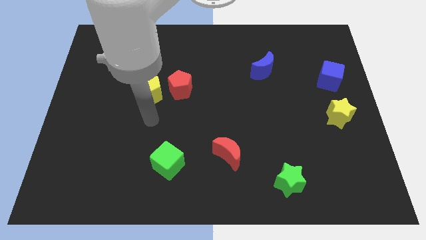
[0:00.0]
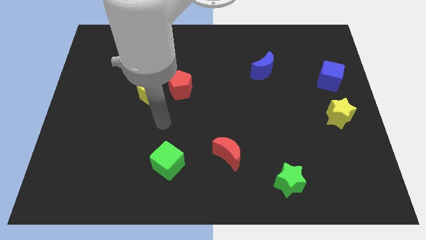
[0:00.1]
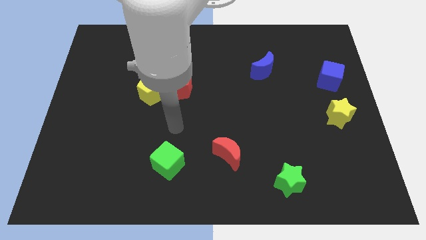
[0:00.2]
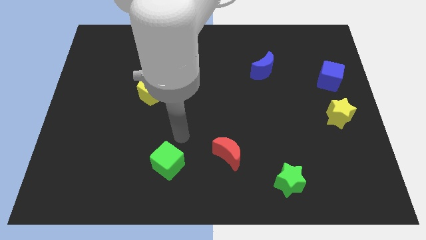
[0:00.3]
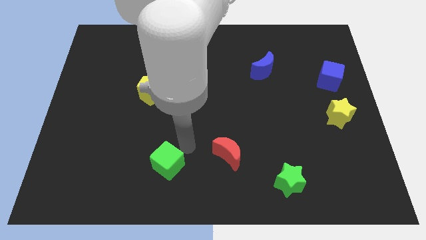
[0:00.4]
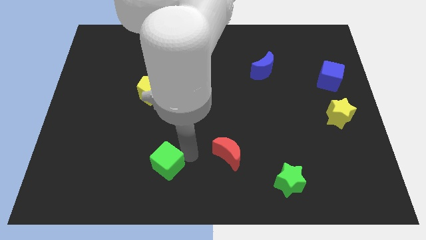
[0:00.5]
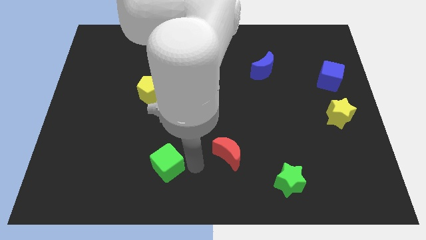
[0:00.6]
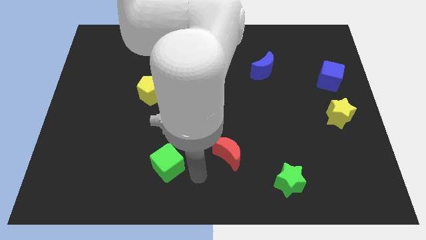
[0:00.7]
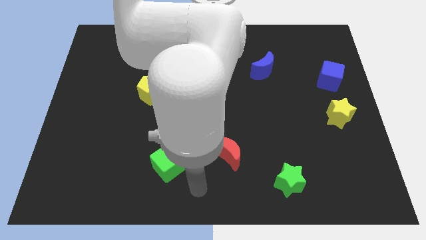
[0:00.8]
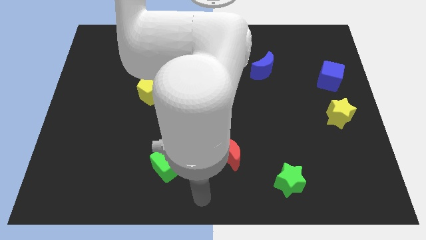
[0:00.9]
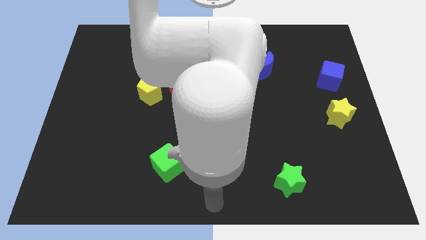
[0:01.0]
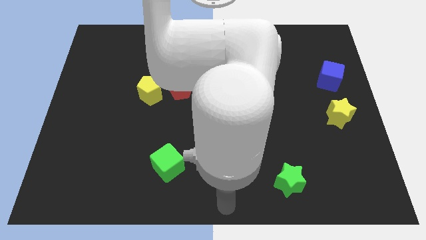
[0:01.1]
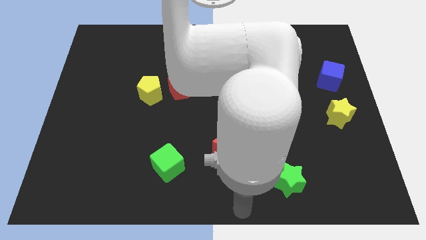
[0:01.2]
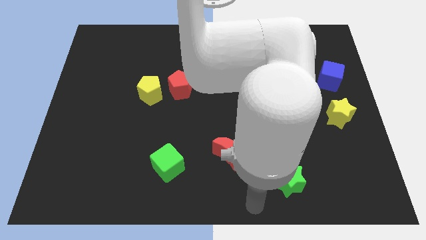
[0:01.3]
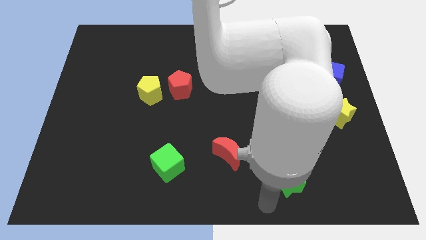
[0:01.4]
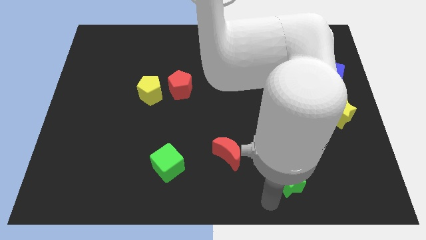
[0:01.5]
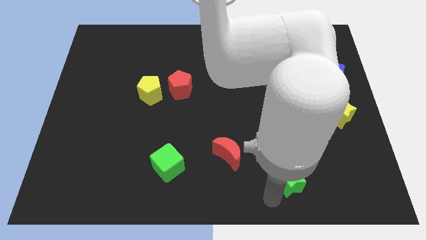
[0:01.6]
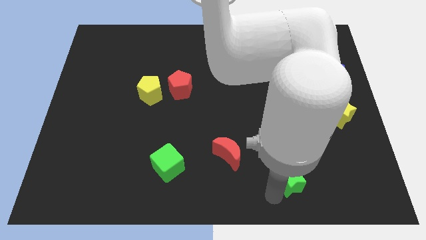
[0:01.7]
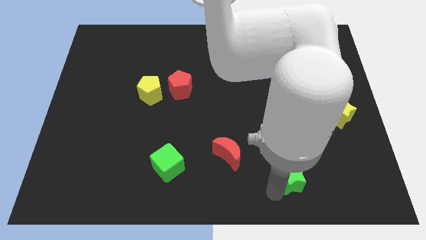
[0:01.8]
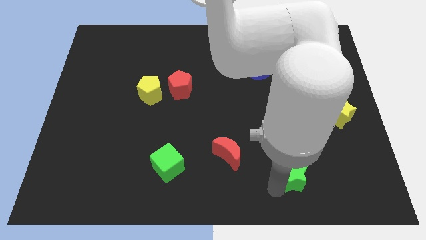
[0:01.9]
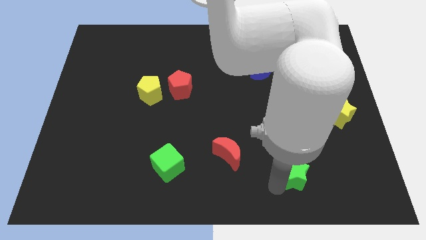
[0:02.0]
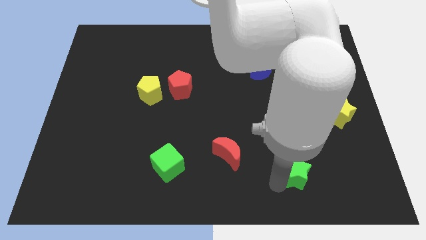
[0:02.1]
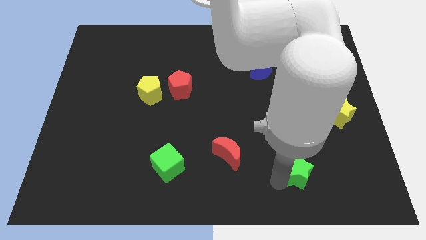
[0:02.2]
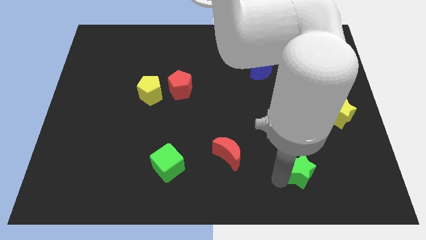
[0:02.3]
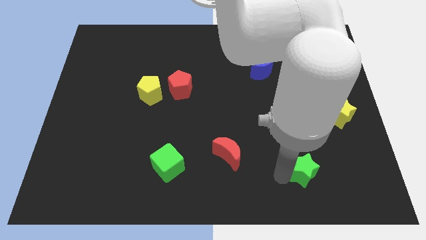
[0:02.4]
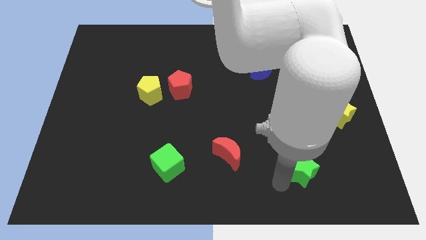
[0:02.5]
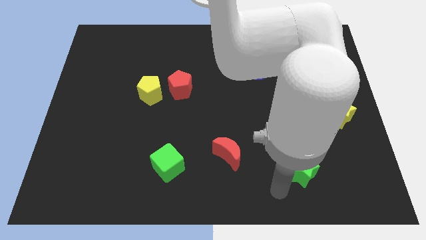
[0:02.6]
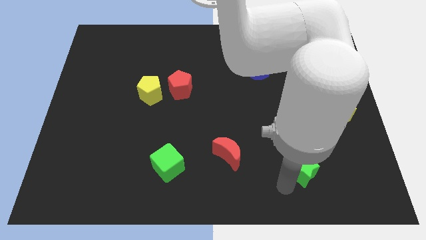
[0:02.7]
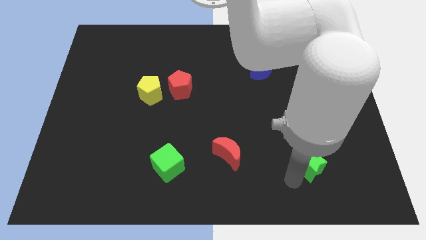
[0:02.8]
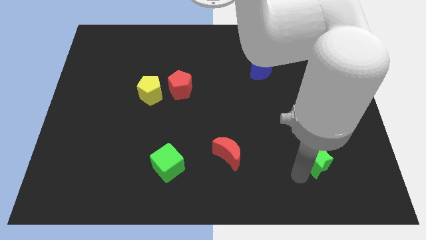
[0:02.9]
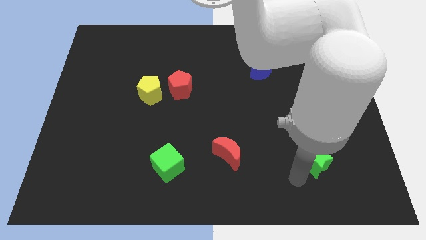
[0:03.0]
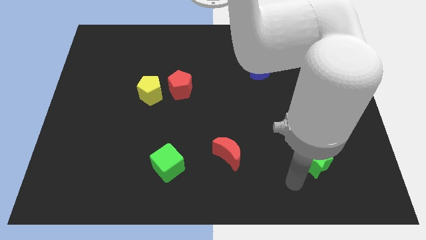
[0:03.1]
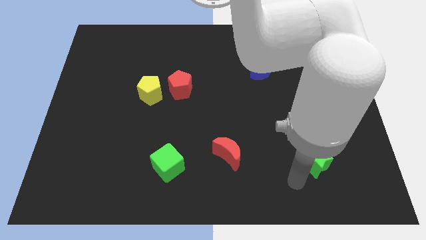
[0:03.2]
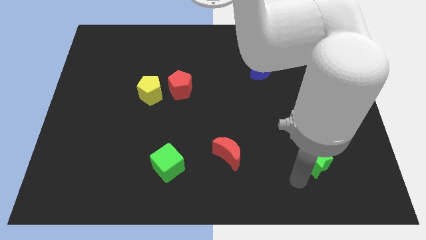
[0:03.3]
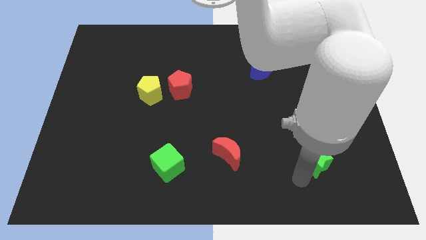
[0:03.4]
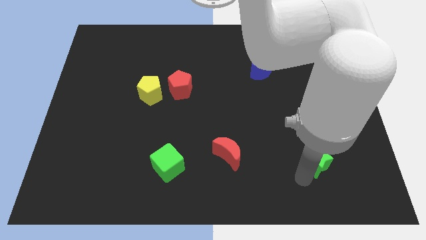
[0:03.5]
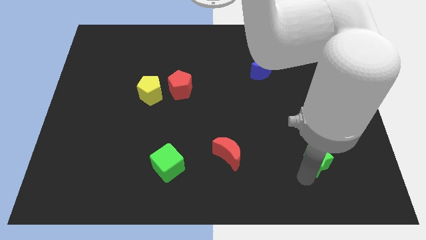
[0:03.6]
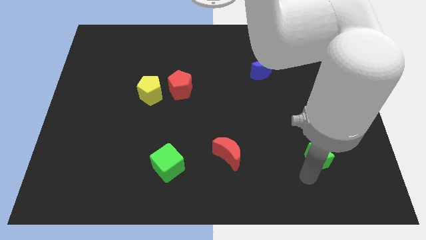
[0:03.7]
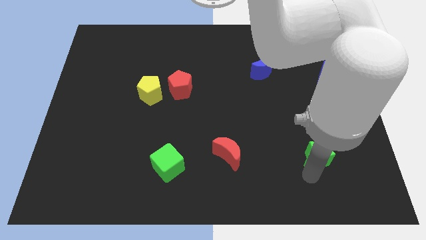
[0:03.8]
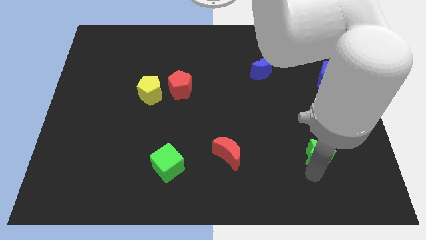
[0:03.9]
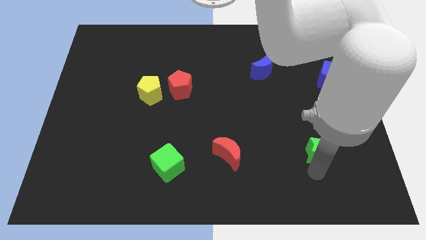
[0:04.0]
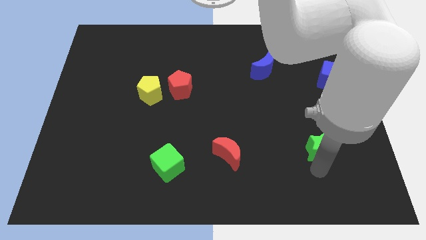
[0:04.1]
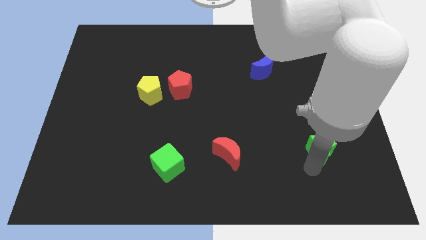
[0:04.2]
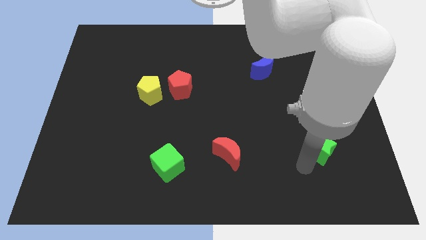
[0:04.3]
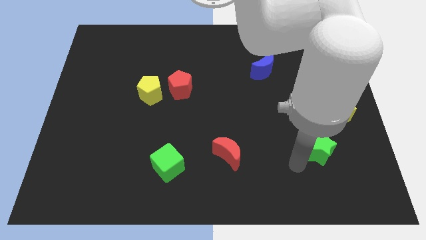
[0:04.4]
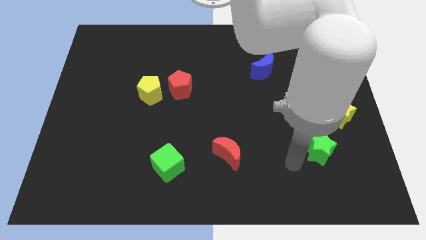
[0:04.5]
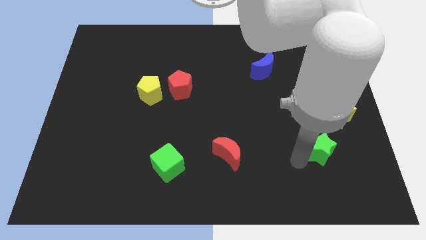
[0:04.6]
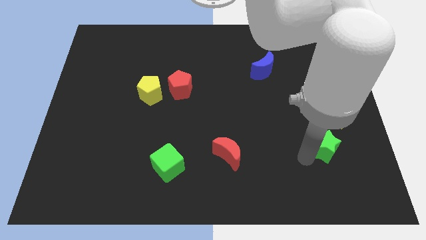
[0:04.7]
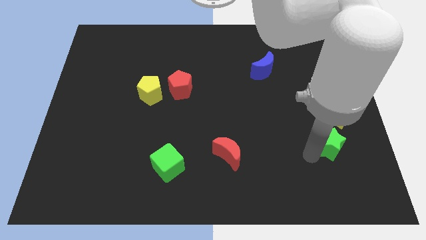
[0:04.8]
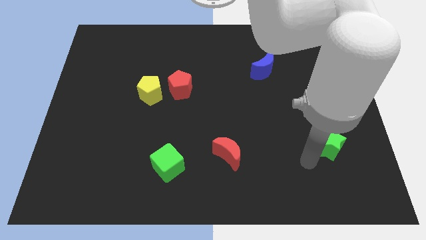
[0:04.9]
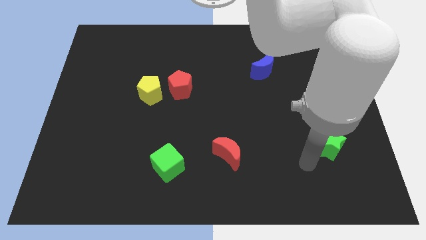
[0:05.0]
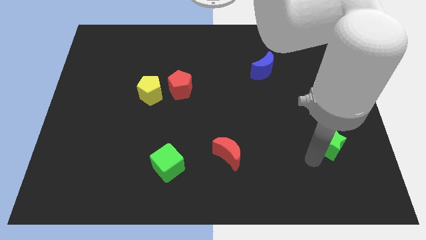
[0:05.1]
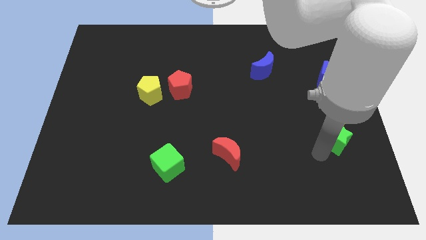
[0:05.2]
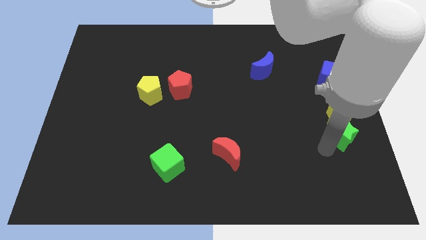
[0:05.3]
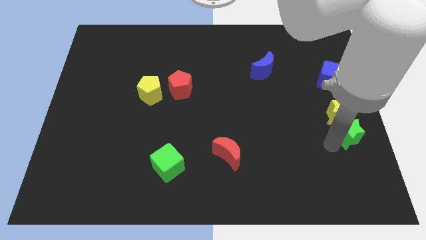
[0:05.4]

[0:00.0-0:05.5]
slide the green star to the center right

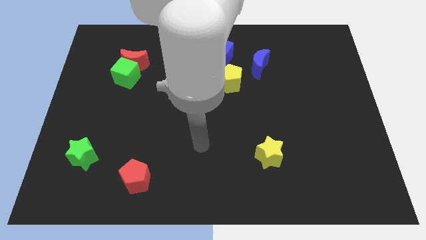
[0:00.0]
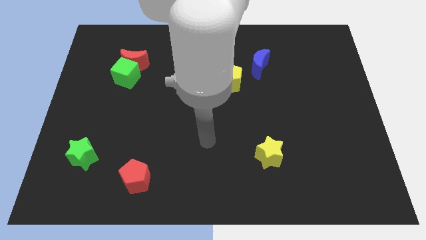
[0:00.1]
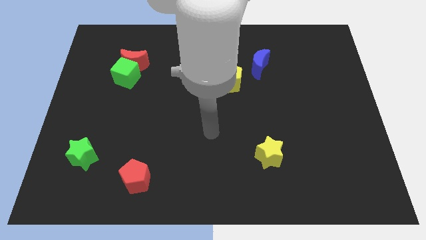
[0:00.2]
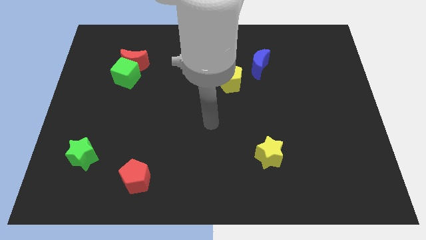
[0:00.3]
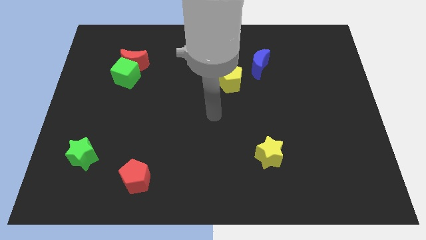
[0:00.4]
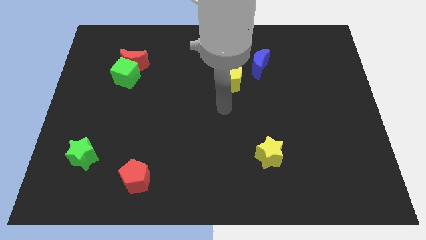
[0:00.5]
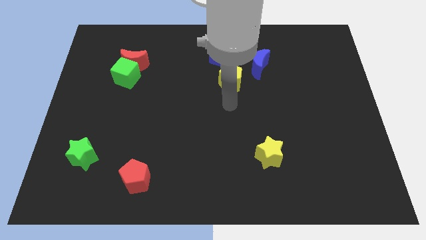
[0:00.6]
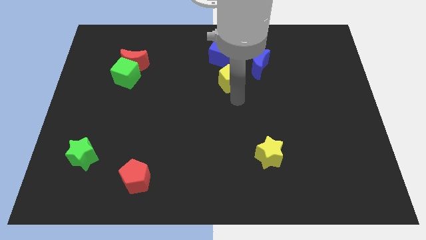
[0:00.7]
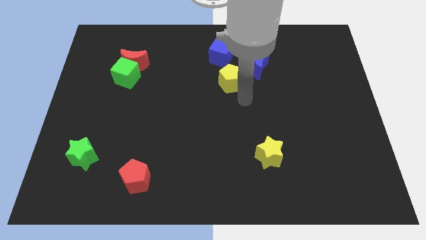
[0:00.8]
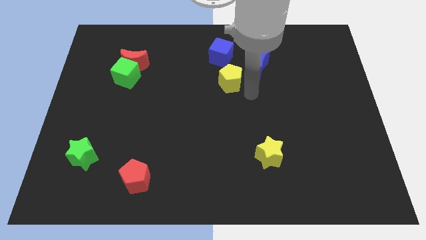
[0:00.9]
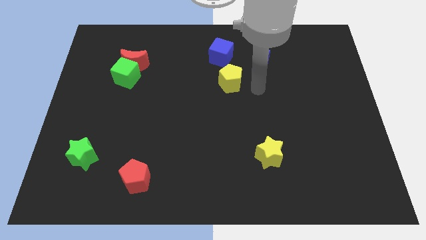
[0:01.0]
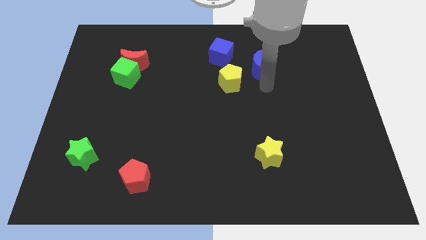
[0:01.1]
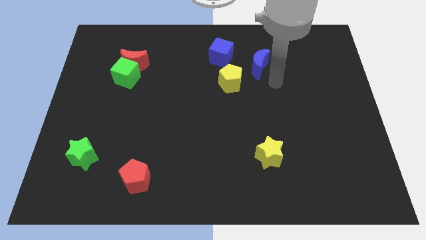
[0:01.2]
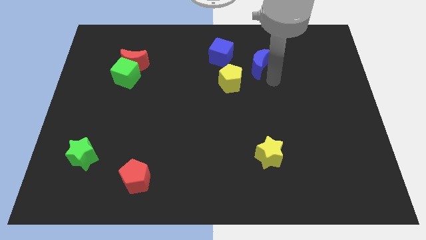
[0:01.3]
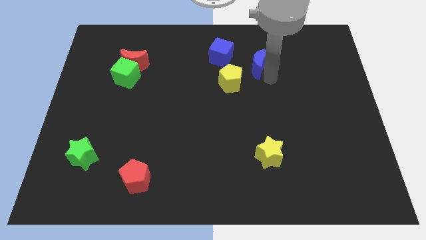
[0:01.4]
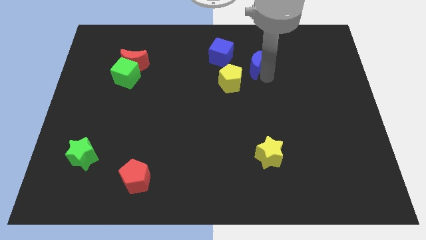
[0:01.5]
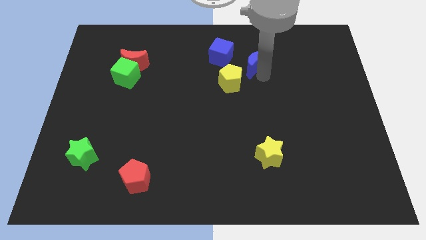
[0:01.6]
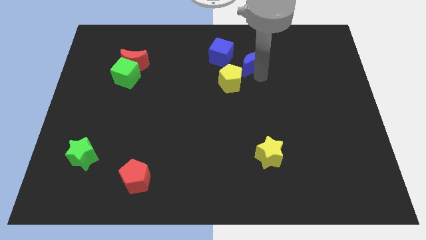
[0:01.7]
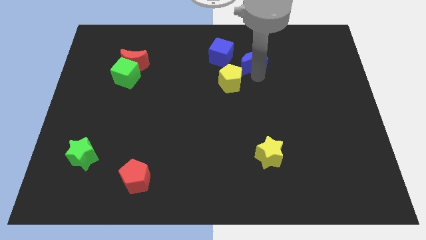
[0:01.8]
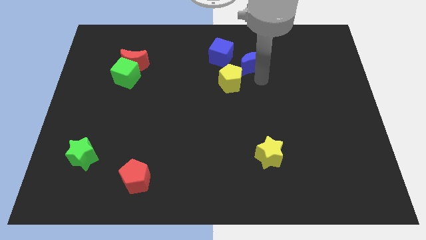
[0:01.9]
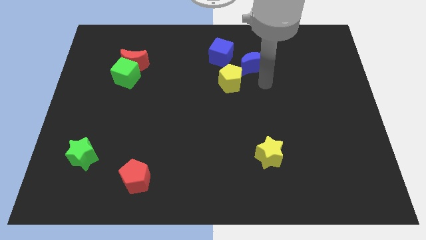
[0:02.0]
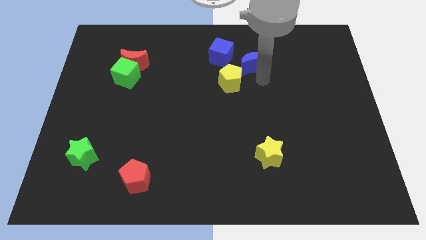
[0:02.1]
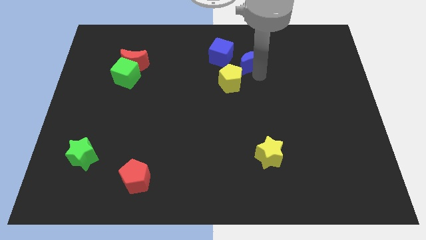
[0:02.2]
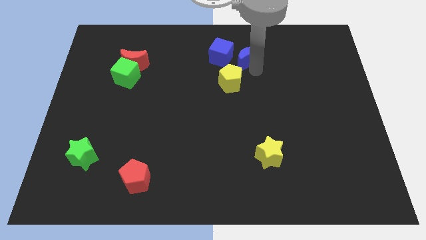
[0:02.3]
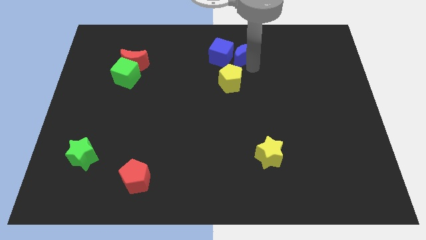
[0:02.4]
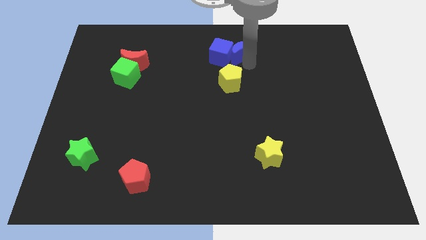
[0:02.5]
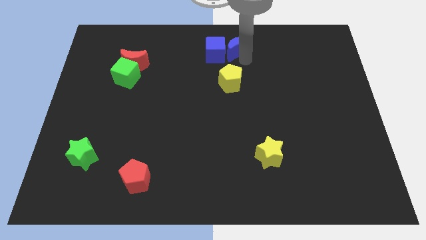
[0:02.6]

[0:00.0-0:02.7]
push the blue moon to the towards your base
